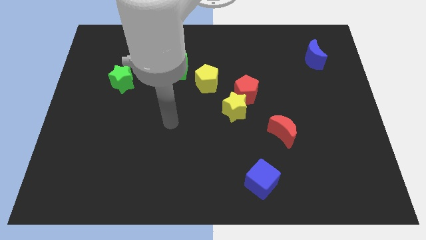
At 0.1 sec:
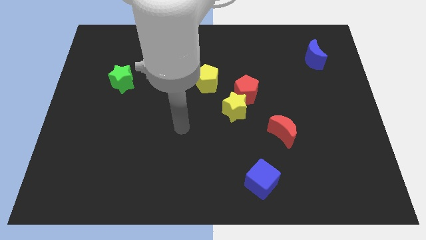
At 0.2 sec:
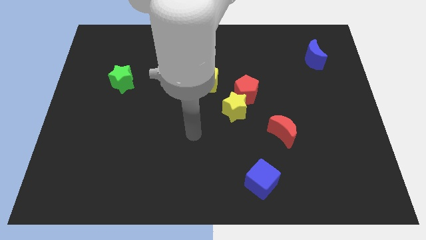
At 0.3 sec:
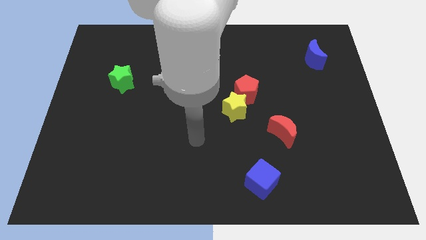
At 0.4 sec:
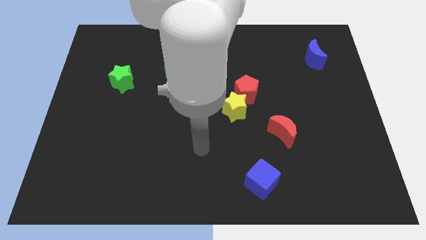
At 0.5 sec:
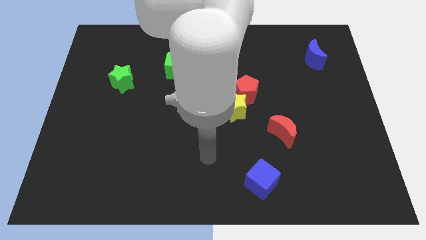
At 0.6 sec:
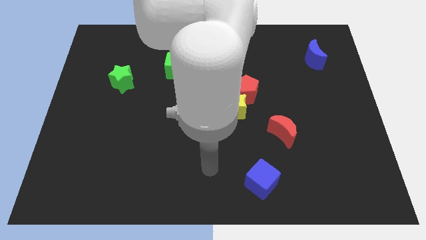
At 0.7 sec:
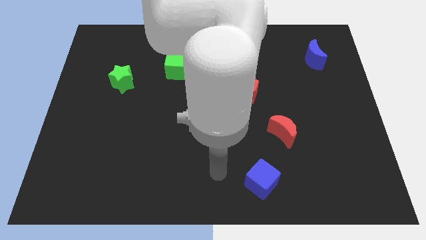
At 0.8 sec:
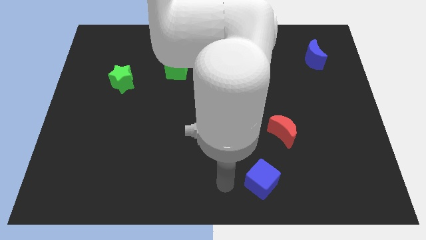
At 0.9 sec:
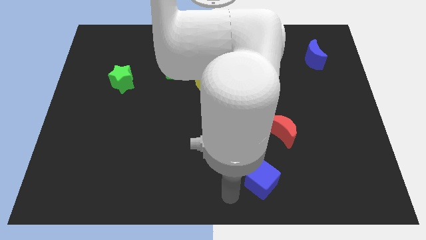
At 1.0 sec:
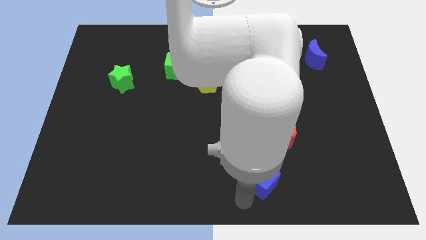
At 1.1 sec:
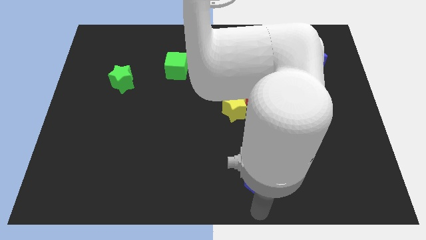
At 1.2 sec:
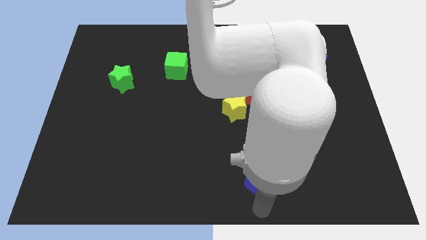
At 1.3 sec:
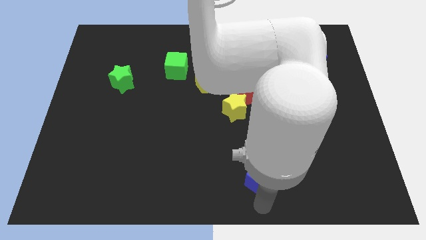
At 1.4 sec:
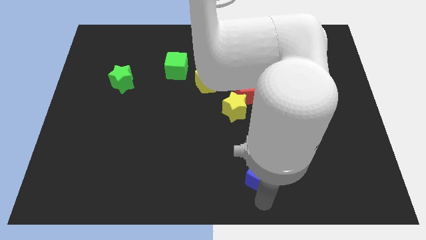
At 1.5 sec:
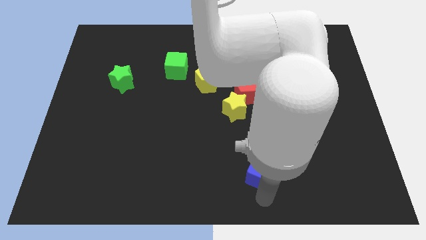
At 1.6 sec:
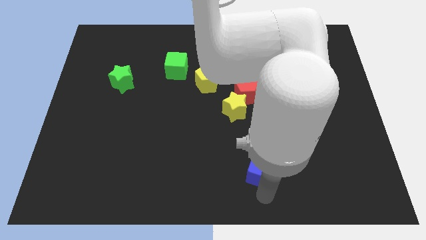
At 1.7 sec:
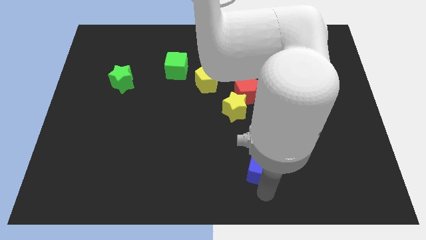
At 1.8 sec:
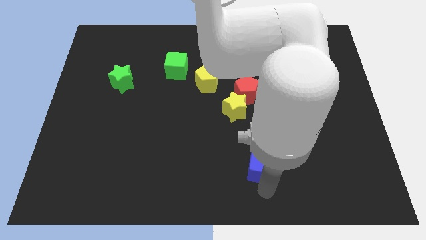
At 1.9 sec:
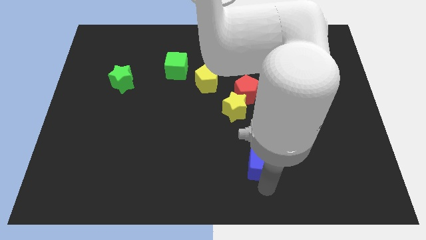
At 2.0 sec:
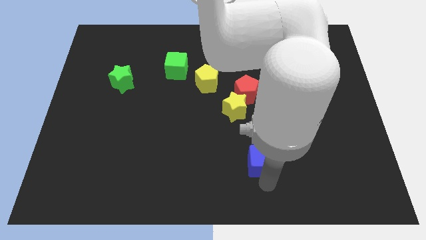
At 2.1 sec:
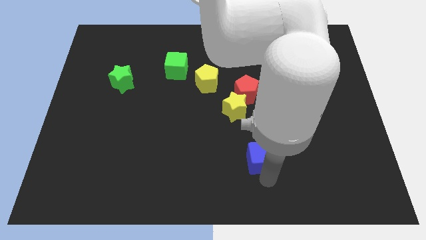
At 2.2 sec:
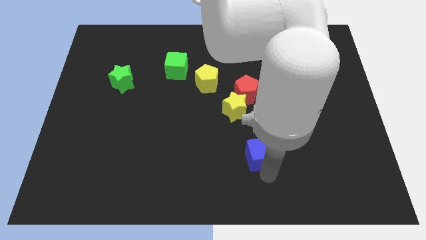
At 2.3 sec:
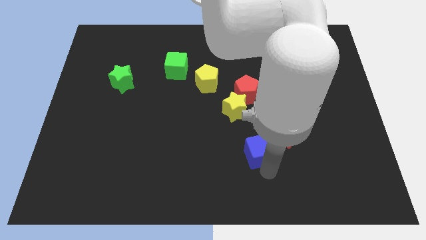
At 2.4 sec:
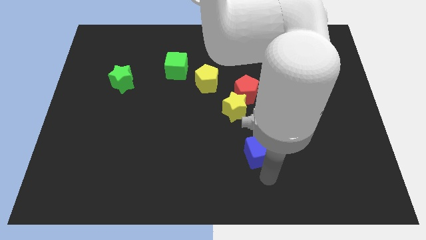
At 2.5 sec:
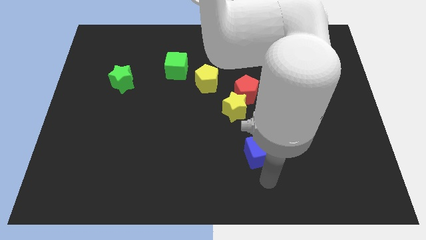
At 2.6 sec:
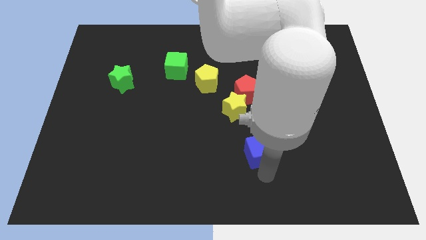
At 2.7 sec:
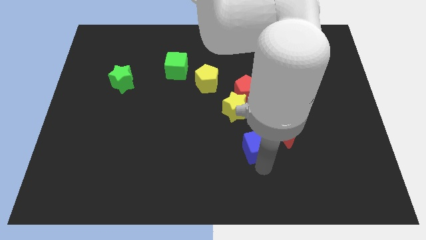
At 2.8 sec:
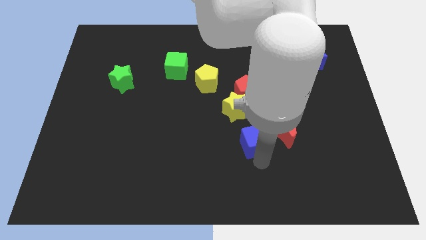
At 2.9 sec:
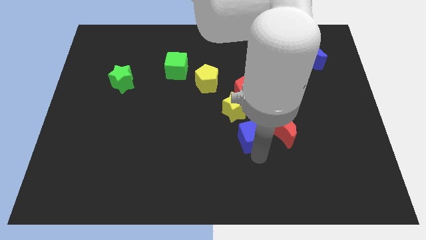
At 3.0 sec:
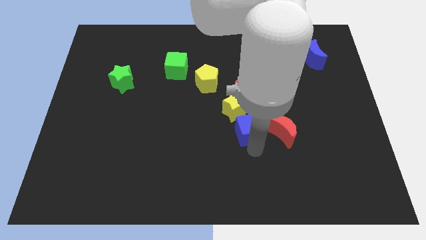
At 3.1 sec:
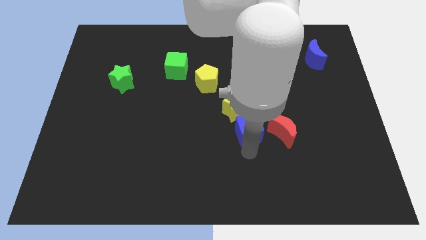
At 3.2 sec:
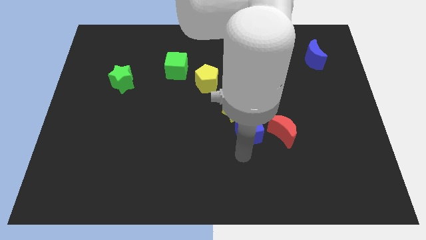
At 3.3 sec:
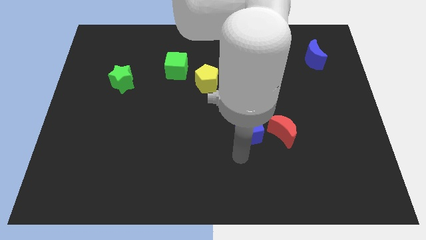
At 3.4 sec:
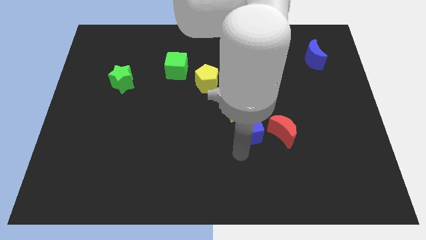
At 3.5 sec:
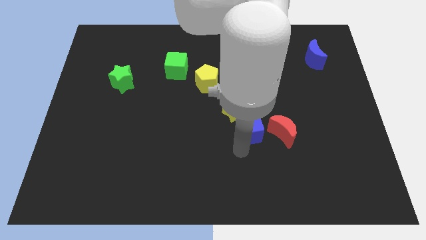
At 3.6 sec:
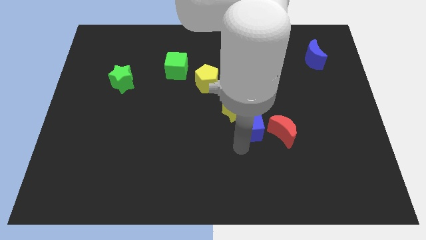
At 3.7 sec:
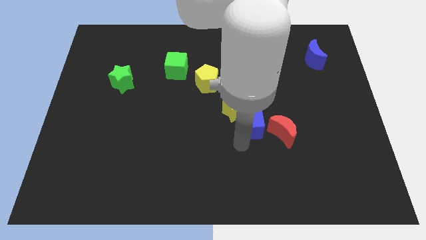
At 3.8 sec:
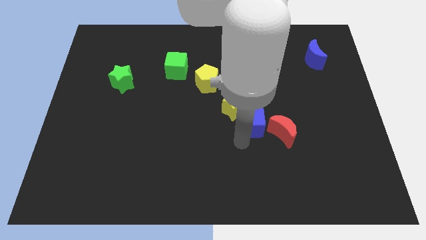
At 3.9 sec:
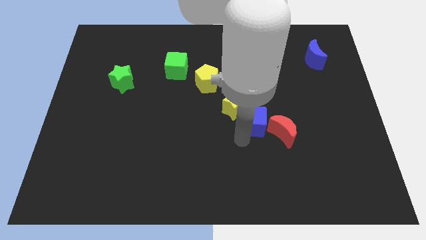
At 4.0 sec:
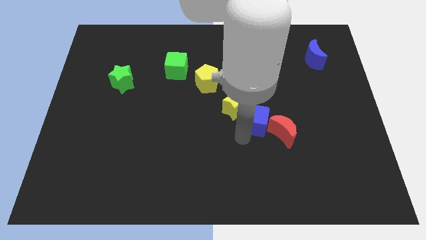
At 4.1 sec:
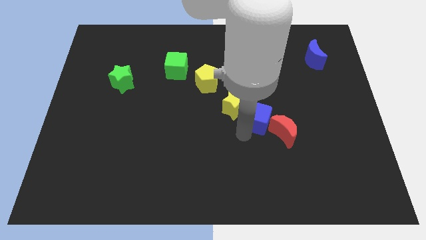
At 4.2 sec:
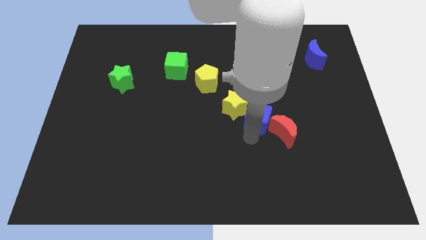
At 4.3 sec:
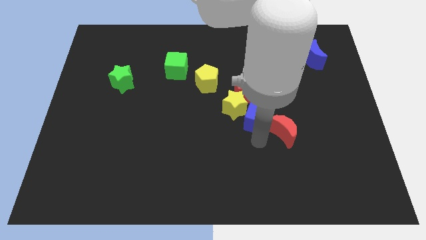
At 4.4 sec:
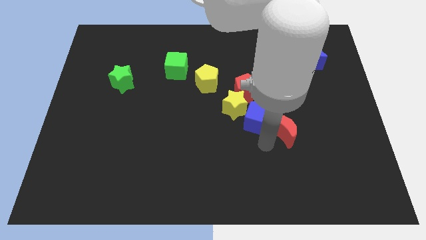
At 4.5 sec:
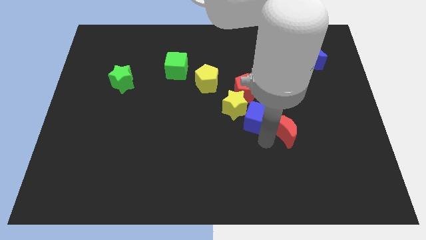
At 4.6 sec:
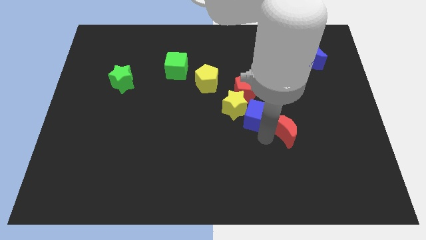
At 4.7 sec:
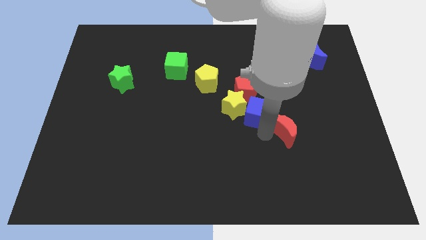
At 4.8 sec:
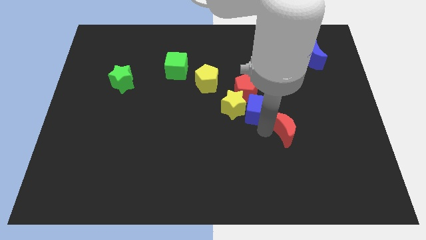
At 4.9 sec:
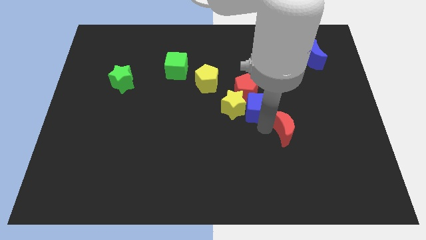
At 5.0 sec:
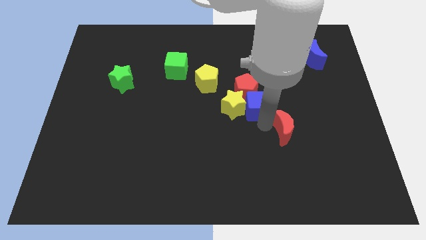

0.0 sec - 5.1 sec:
slide the blue cube towards the red pentagon

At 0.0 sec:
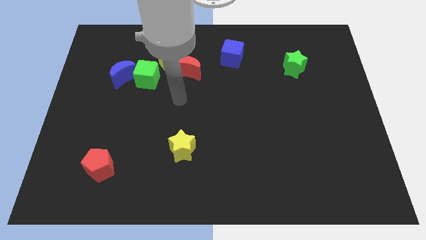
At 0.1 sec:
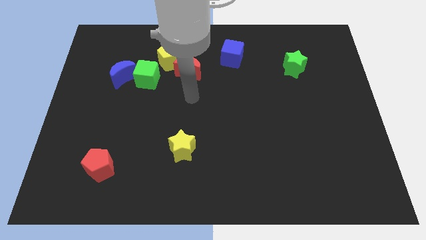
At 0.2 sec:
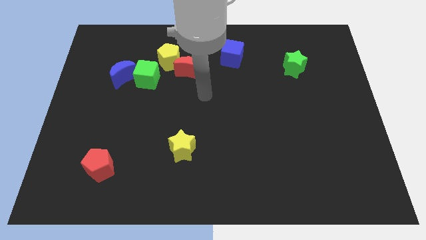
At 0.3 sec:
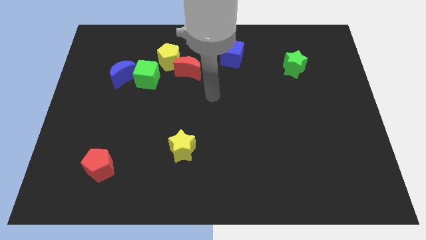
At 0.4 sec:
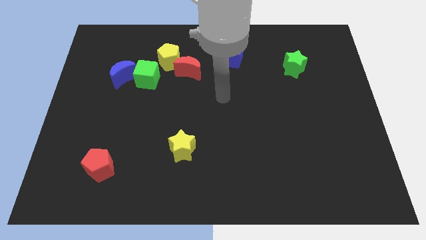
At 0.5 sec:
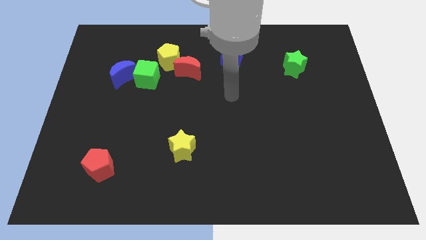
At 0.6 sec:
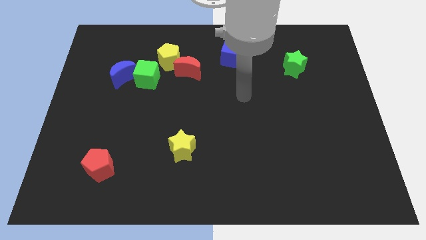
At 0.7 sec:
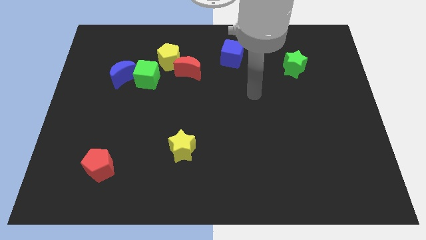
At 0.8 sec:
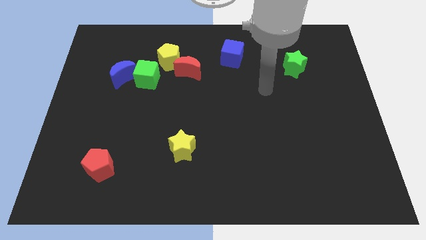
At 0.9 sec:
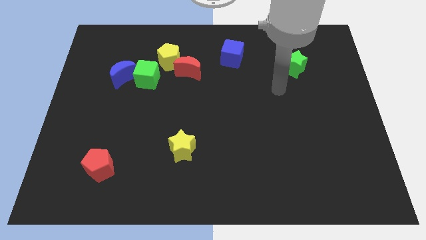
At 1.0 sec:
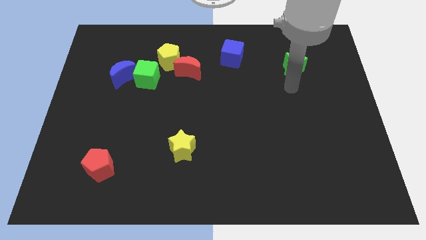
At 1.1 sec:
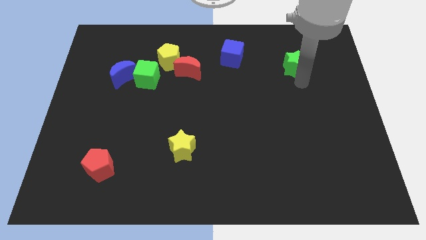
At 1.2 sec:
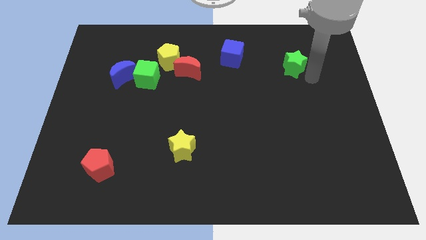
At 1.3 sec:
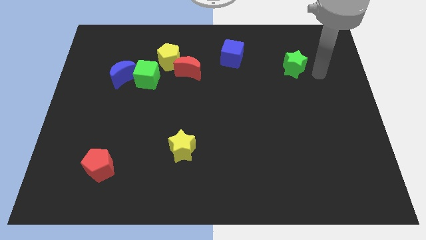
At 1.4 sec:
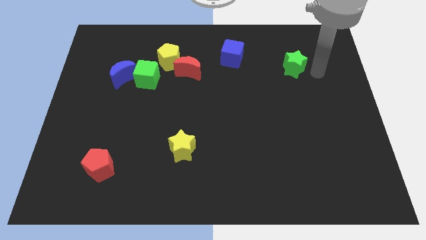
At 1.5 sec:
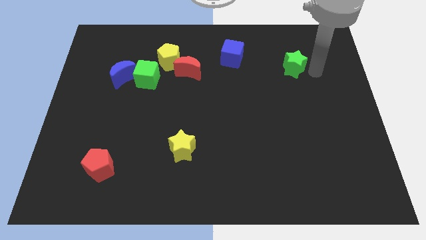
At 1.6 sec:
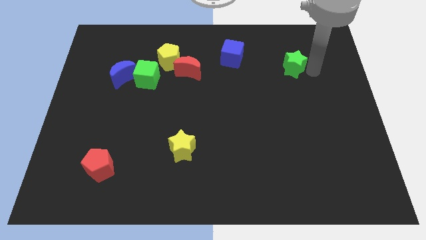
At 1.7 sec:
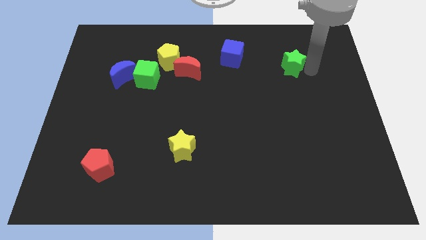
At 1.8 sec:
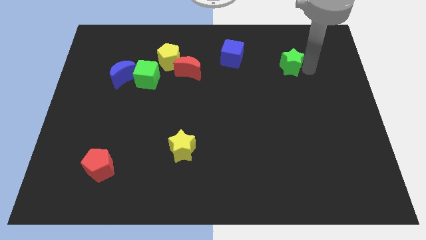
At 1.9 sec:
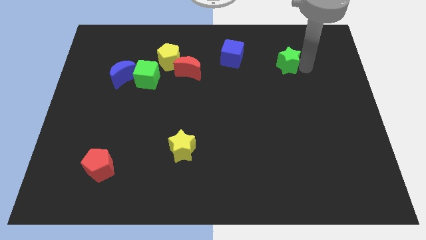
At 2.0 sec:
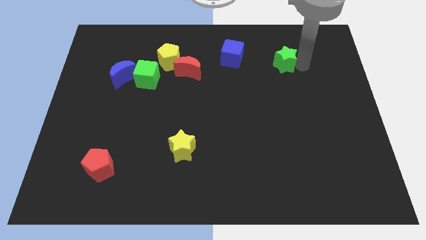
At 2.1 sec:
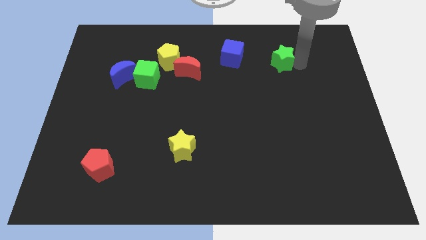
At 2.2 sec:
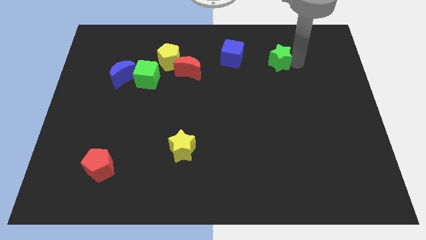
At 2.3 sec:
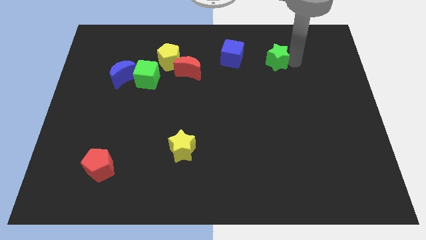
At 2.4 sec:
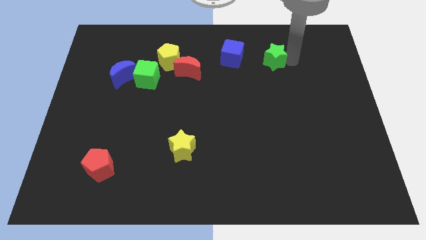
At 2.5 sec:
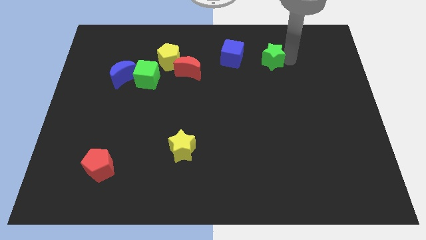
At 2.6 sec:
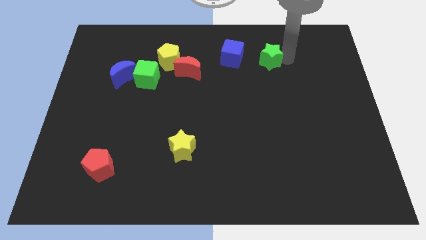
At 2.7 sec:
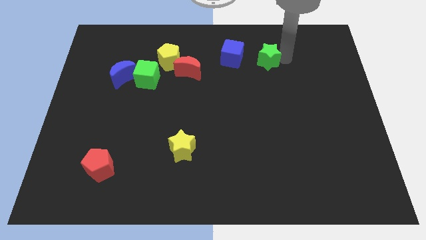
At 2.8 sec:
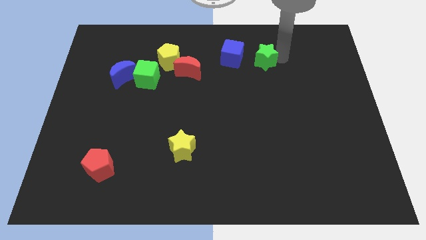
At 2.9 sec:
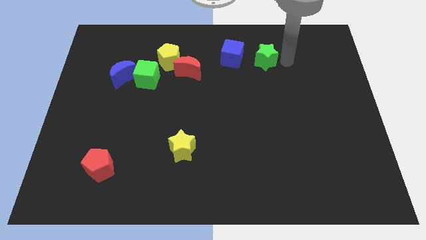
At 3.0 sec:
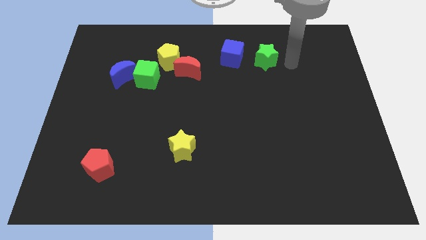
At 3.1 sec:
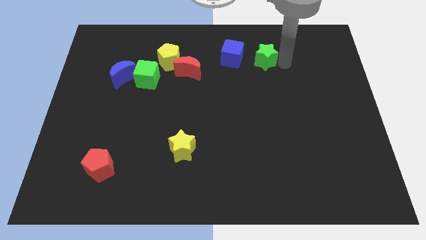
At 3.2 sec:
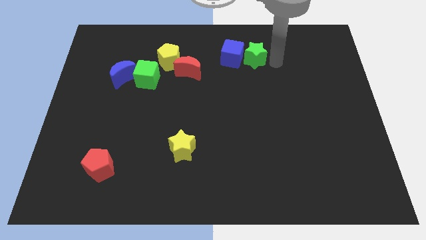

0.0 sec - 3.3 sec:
put the green star next to the blue cube
